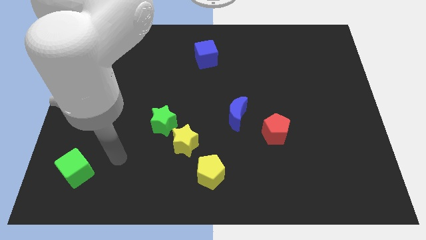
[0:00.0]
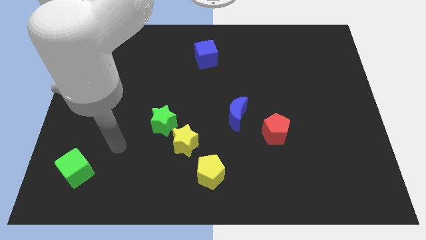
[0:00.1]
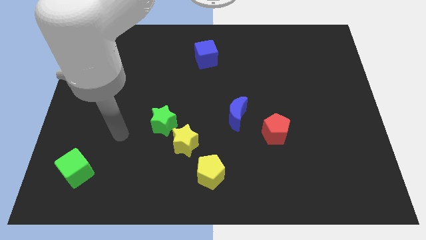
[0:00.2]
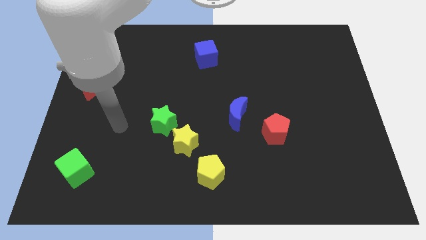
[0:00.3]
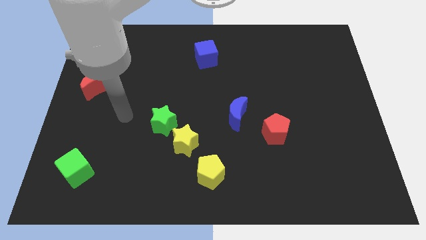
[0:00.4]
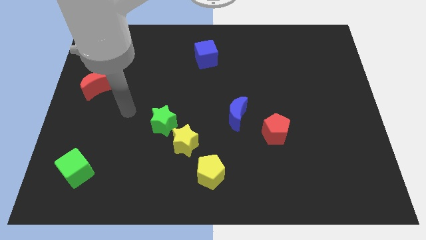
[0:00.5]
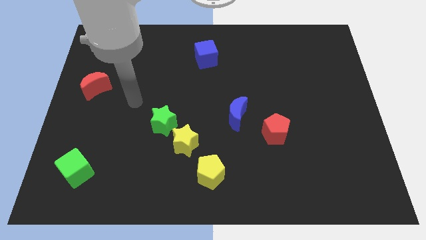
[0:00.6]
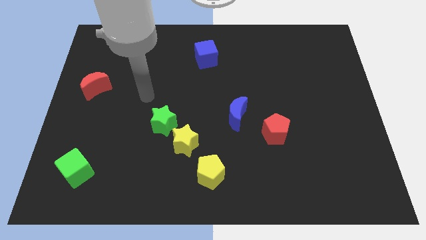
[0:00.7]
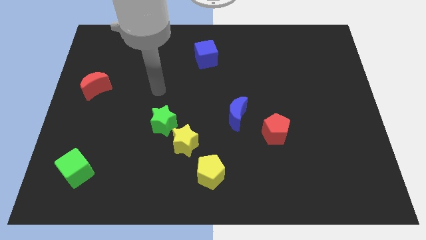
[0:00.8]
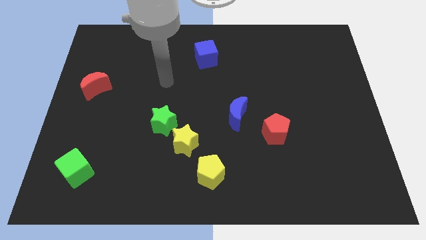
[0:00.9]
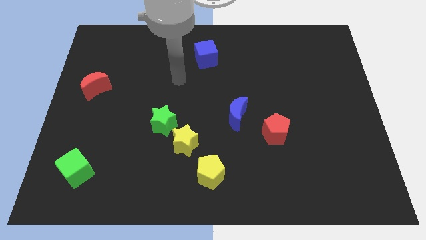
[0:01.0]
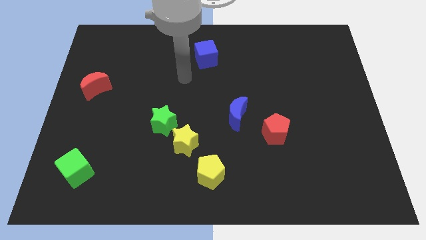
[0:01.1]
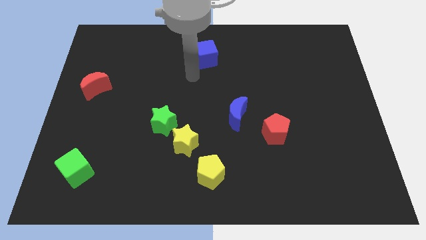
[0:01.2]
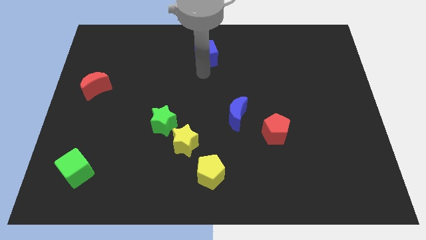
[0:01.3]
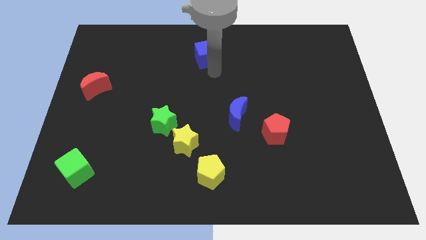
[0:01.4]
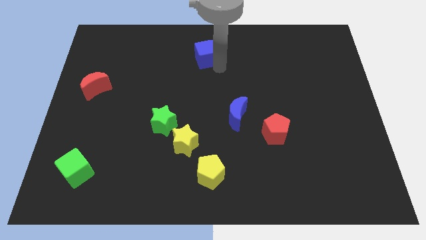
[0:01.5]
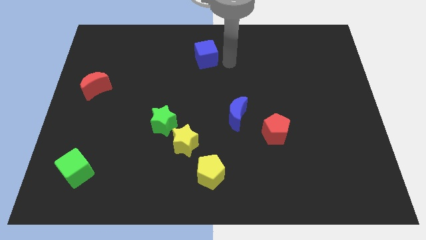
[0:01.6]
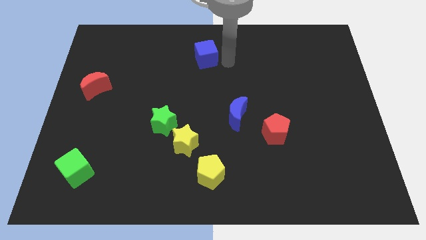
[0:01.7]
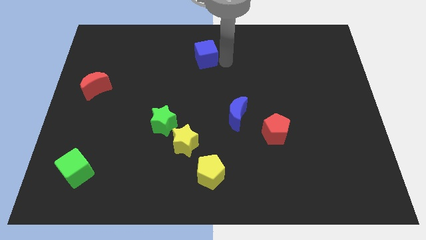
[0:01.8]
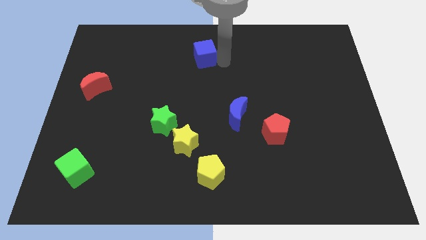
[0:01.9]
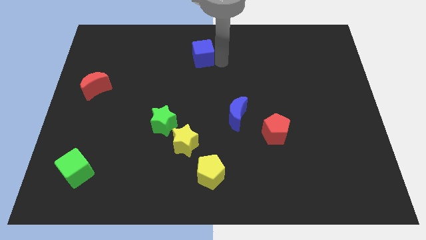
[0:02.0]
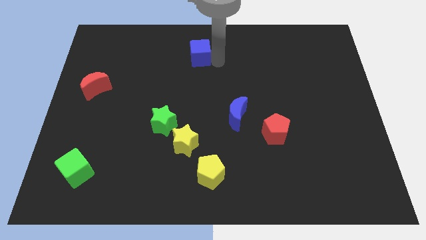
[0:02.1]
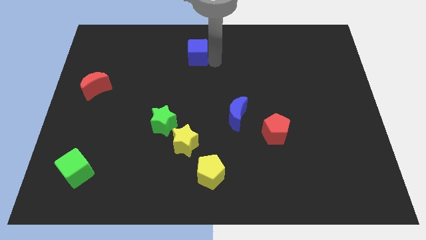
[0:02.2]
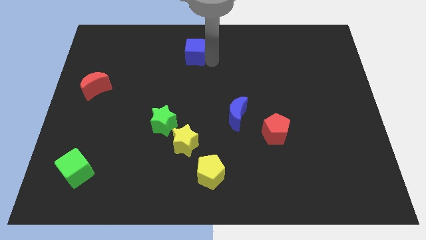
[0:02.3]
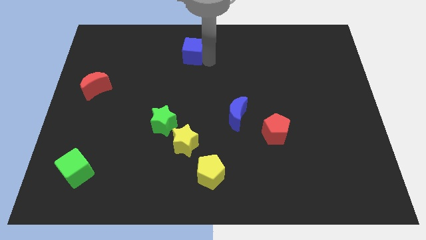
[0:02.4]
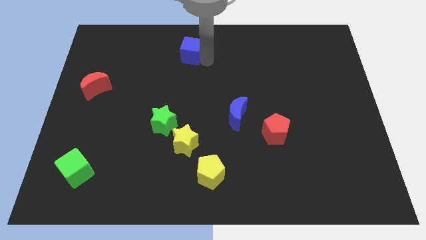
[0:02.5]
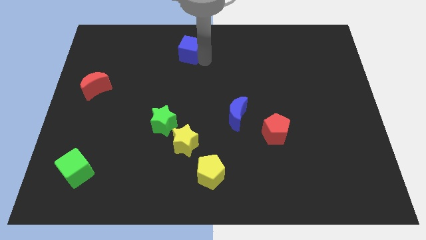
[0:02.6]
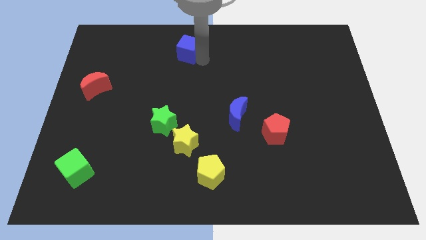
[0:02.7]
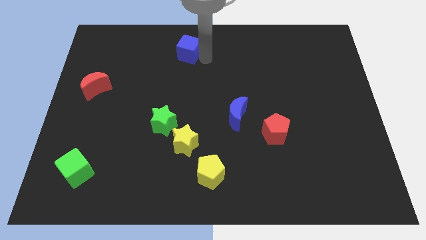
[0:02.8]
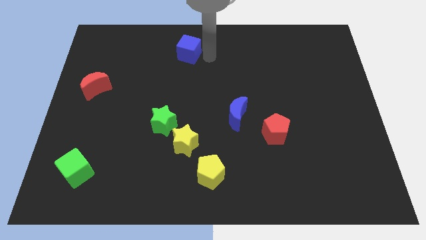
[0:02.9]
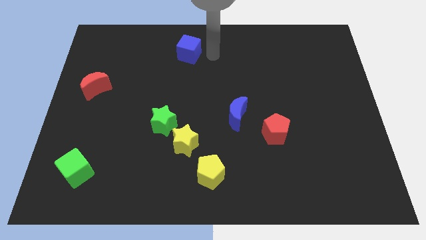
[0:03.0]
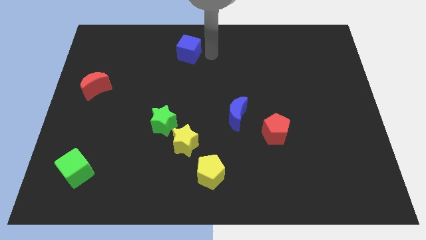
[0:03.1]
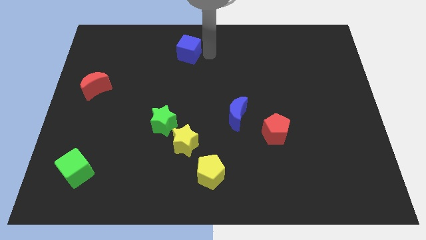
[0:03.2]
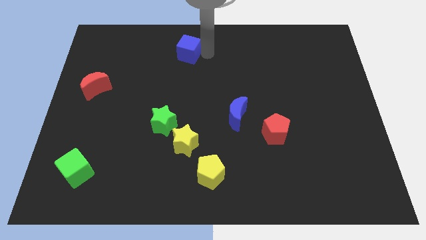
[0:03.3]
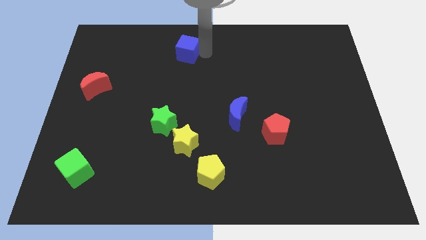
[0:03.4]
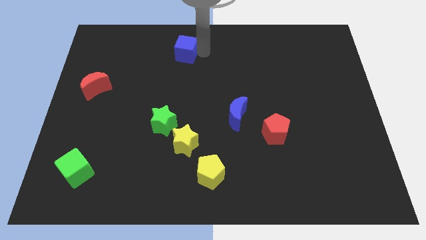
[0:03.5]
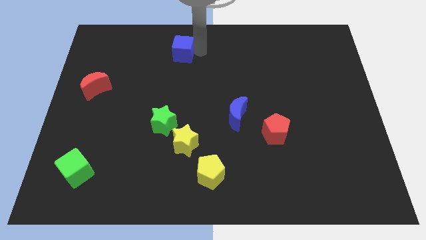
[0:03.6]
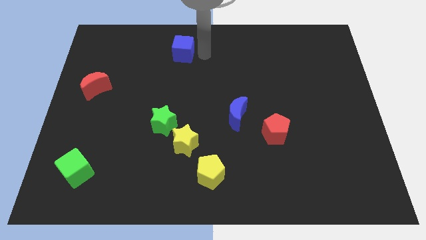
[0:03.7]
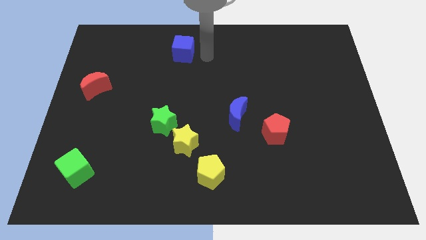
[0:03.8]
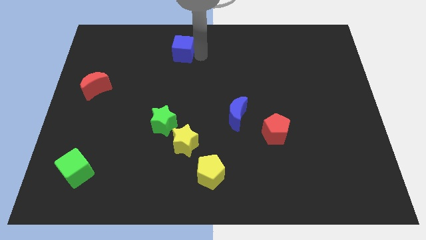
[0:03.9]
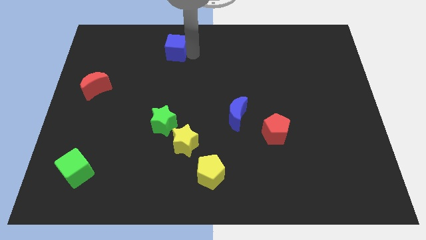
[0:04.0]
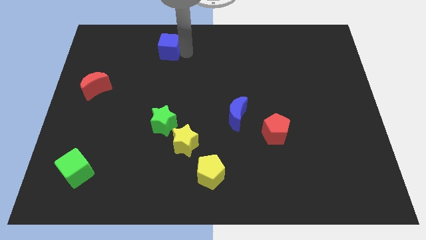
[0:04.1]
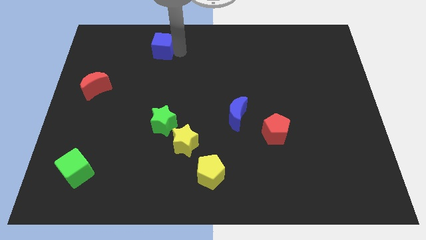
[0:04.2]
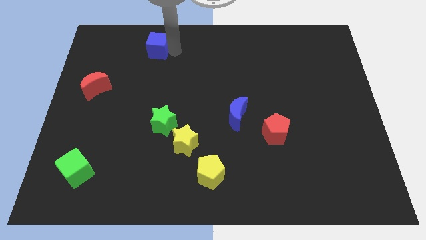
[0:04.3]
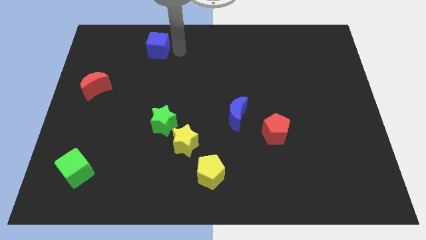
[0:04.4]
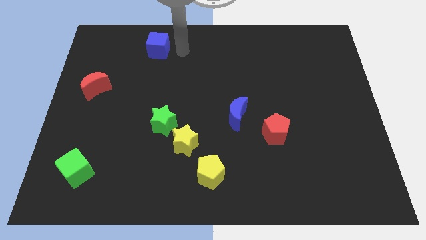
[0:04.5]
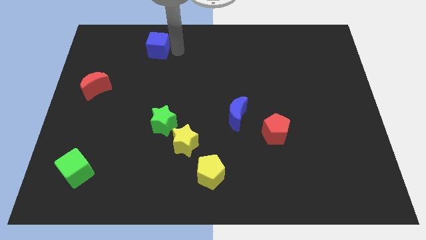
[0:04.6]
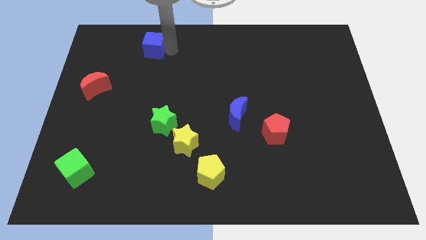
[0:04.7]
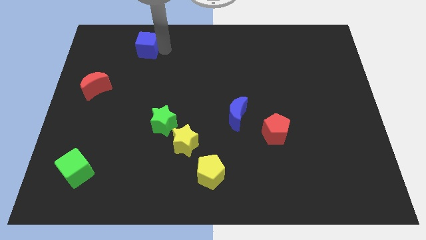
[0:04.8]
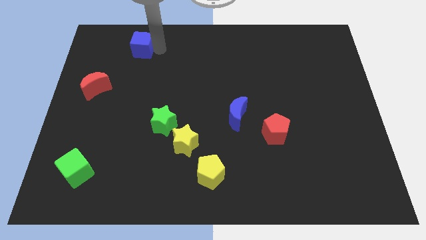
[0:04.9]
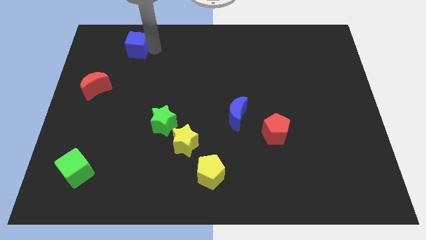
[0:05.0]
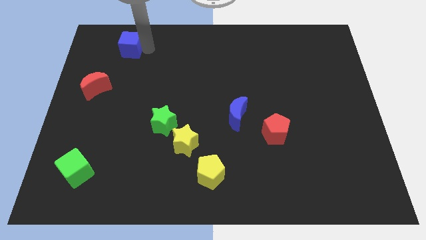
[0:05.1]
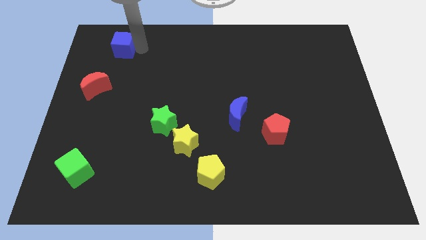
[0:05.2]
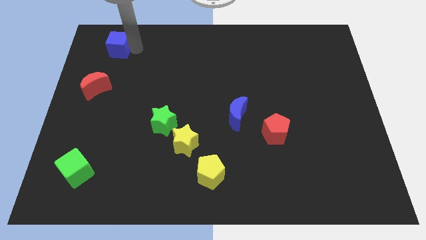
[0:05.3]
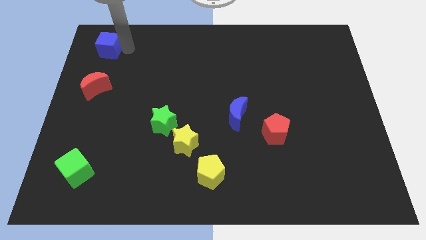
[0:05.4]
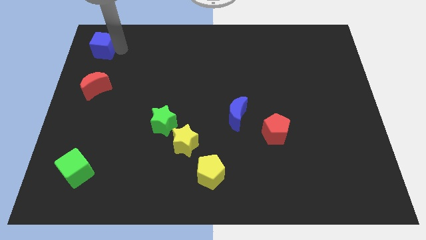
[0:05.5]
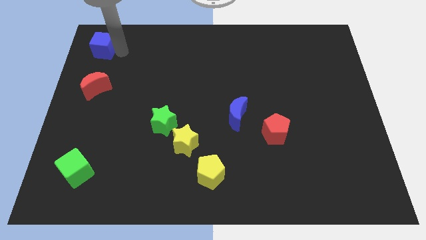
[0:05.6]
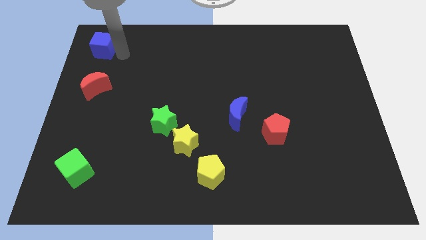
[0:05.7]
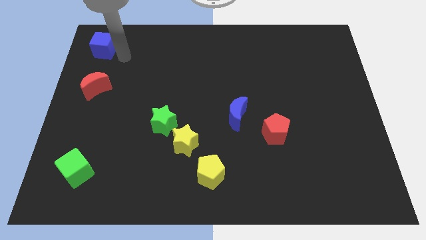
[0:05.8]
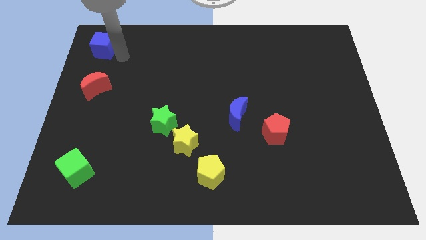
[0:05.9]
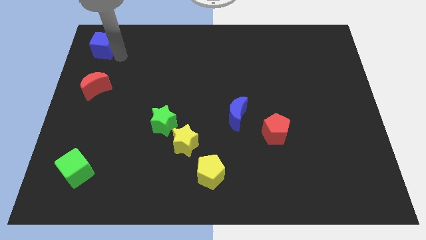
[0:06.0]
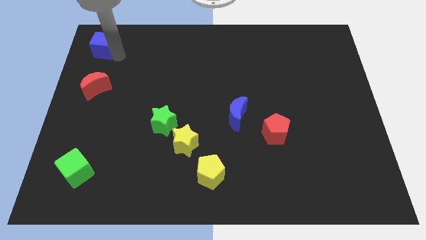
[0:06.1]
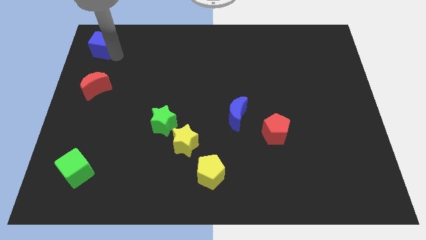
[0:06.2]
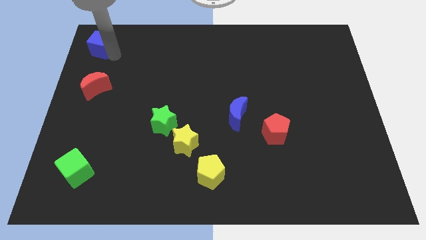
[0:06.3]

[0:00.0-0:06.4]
push the blue cube to the top left of the board

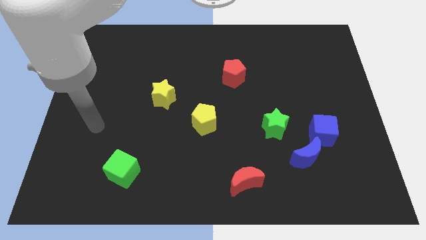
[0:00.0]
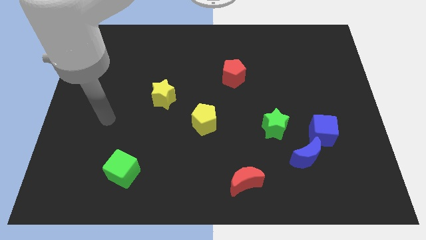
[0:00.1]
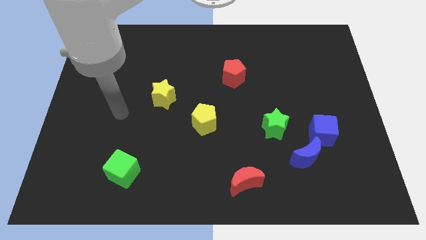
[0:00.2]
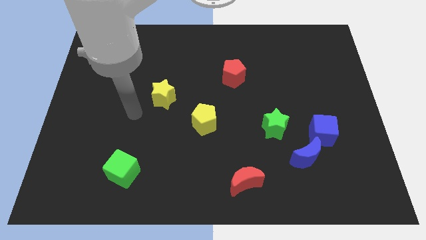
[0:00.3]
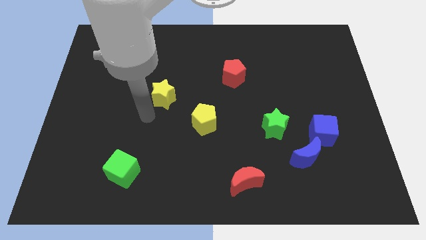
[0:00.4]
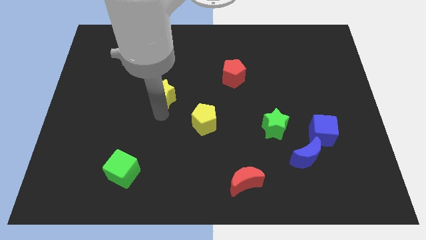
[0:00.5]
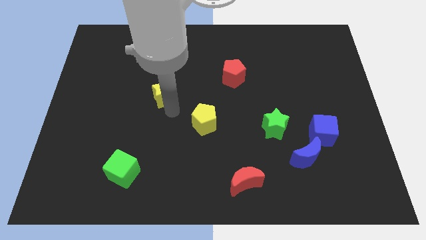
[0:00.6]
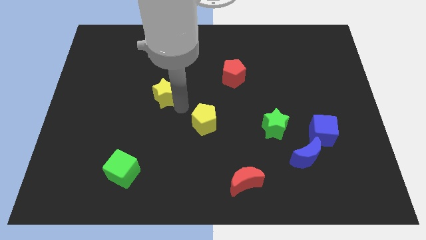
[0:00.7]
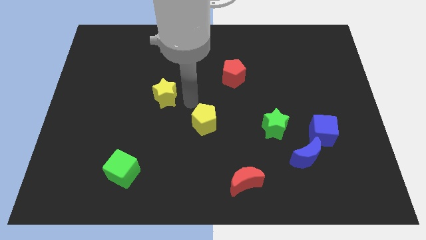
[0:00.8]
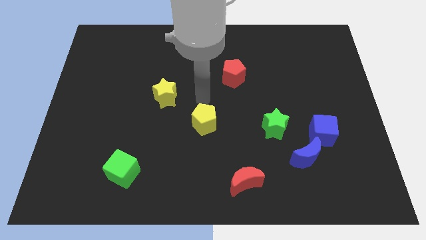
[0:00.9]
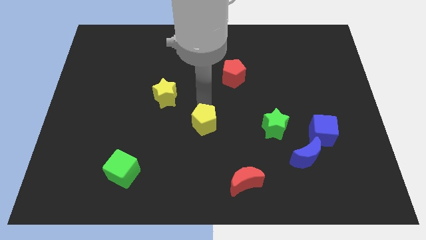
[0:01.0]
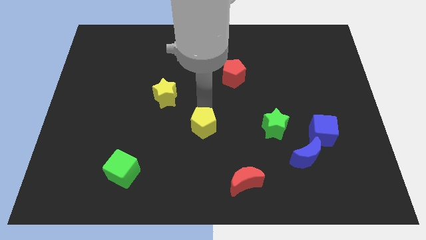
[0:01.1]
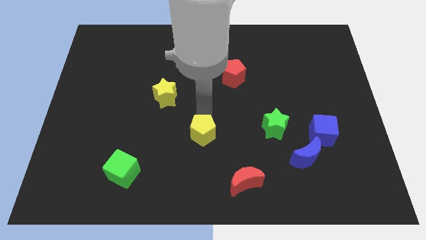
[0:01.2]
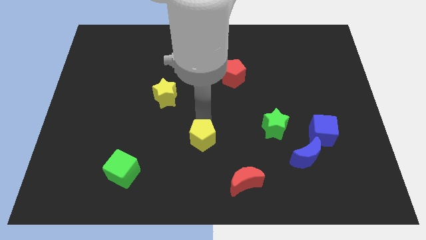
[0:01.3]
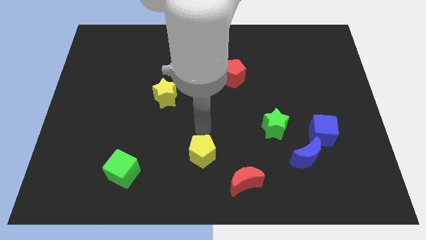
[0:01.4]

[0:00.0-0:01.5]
slide the yellow pentagon to the bottom
